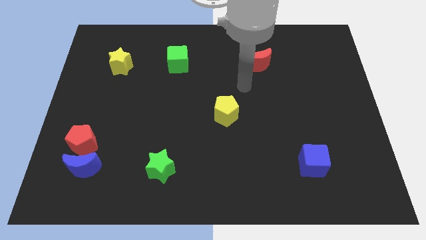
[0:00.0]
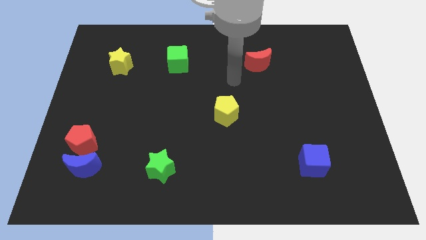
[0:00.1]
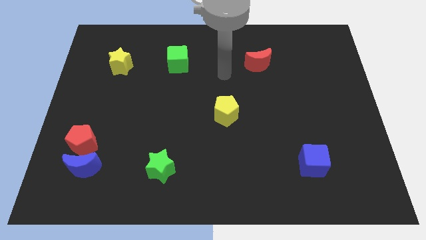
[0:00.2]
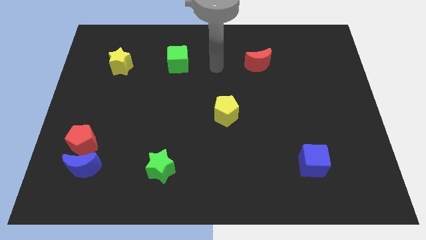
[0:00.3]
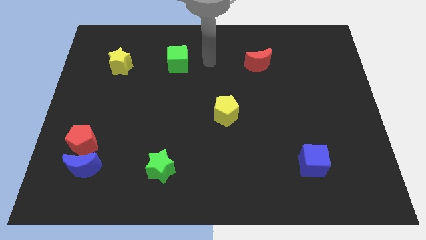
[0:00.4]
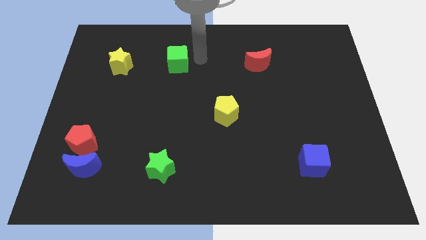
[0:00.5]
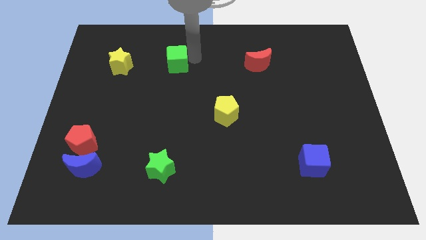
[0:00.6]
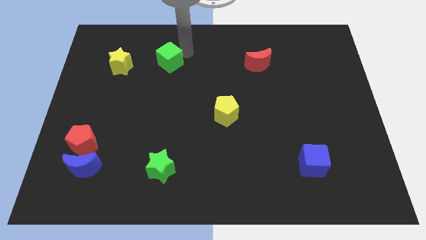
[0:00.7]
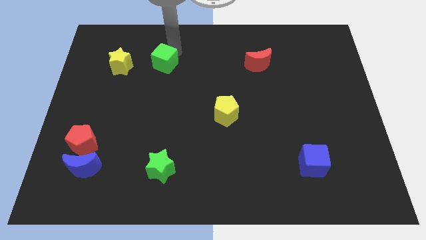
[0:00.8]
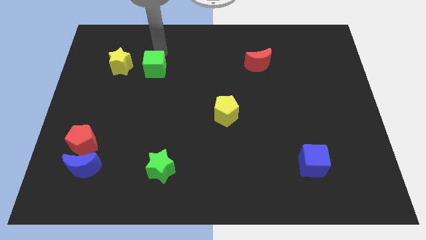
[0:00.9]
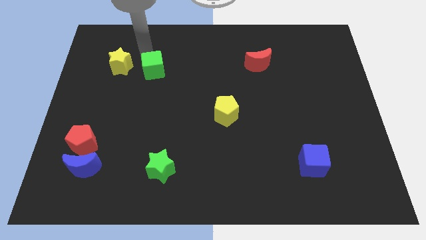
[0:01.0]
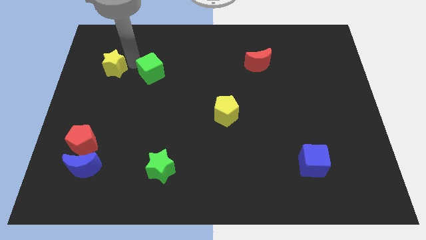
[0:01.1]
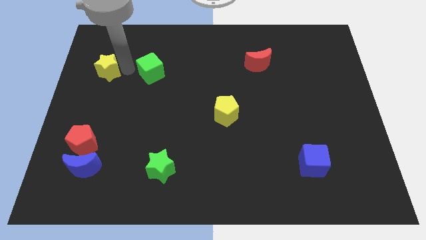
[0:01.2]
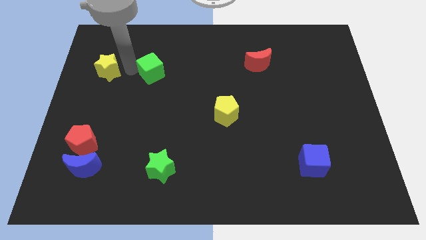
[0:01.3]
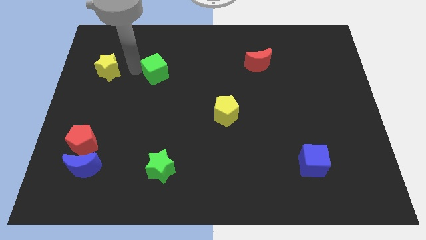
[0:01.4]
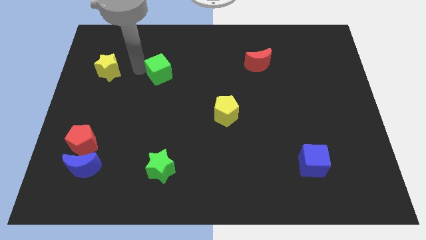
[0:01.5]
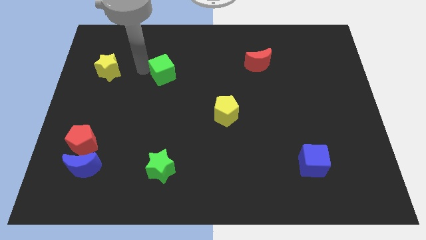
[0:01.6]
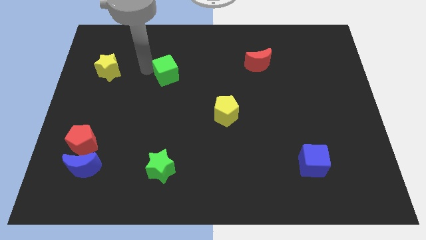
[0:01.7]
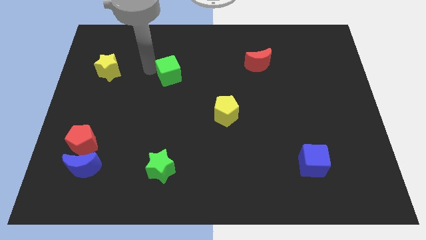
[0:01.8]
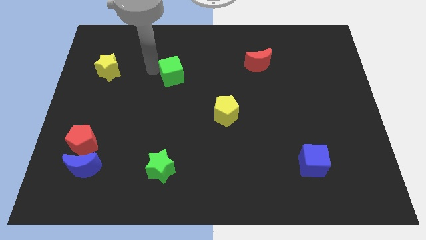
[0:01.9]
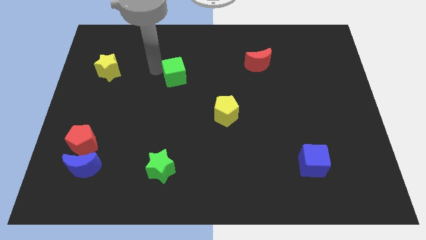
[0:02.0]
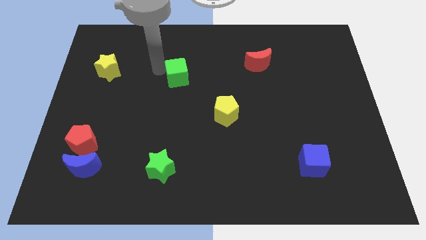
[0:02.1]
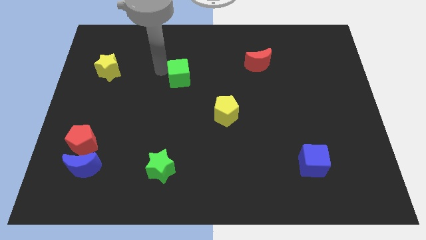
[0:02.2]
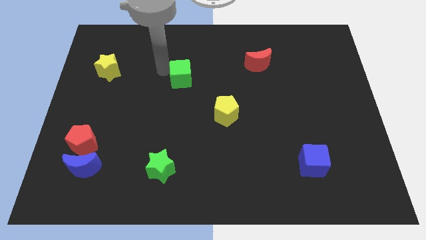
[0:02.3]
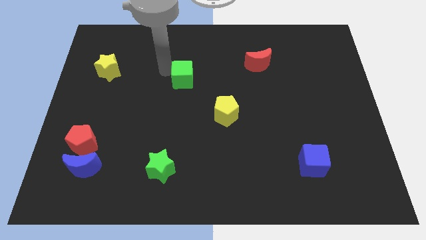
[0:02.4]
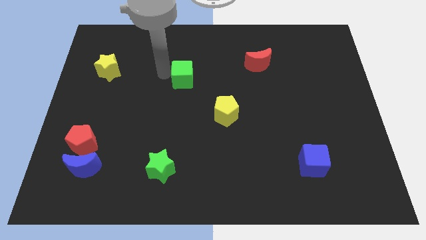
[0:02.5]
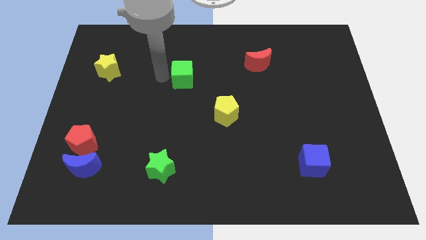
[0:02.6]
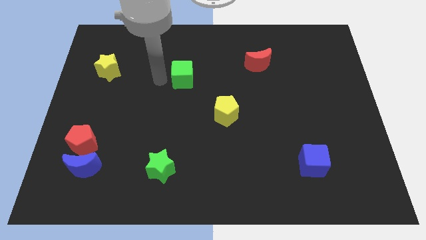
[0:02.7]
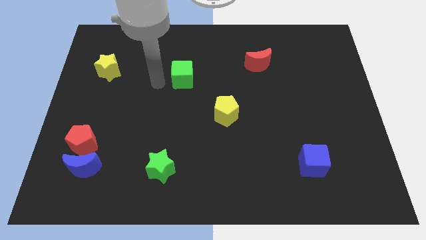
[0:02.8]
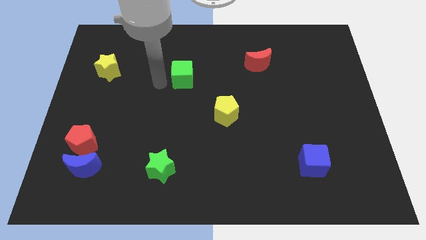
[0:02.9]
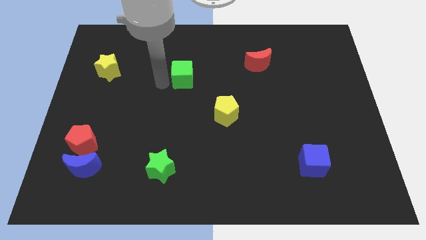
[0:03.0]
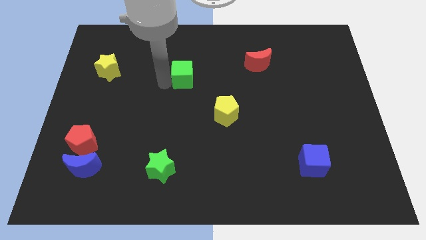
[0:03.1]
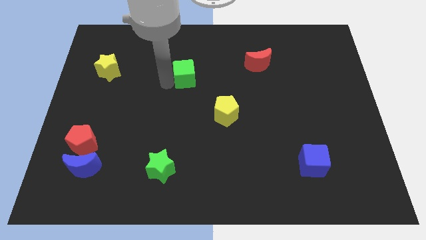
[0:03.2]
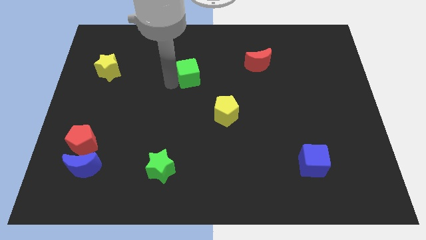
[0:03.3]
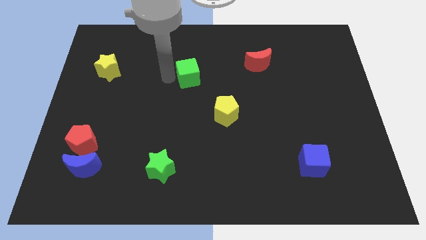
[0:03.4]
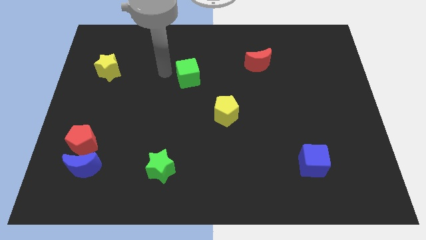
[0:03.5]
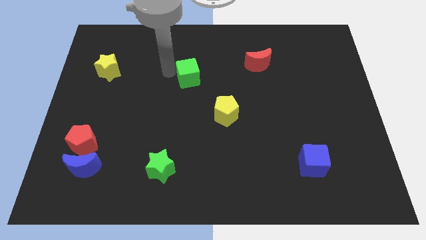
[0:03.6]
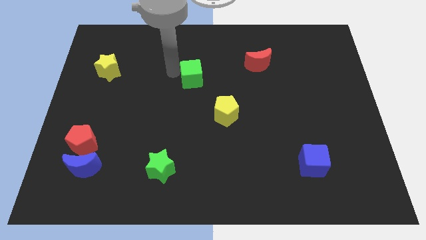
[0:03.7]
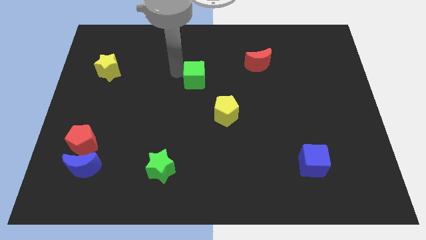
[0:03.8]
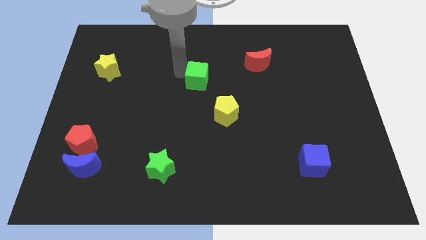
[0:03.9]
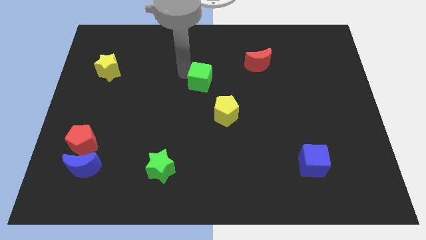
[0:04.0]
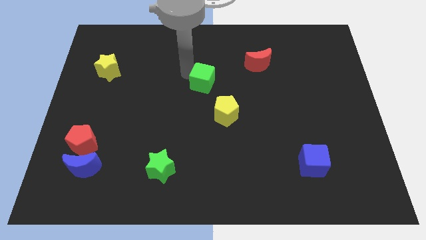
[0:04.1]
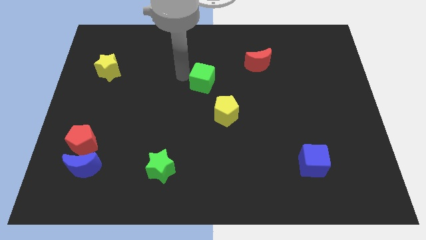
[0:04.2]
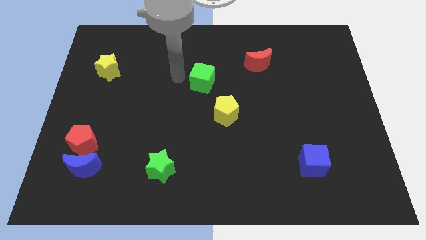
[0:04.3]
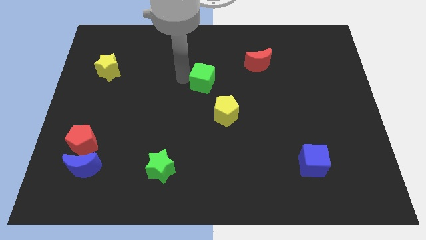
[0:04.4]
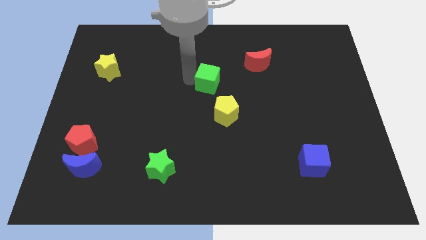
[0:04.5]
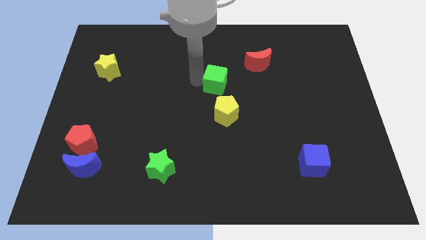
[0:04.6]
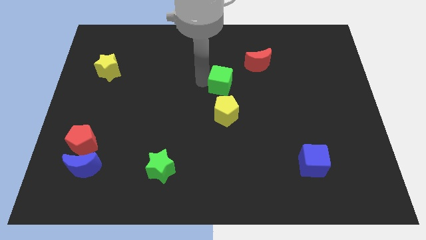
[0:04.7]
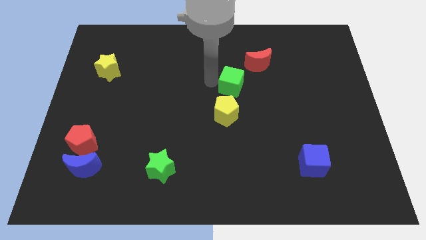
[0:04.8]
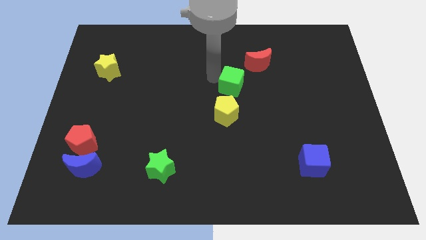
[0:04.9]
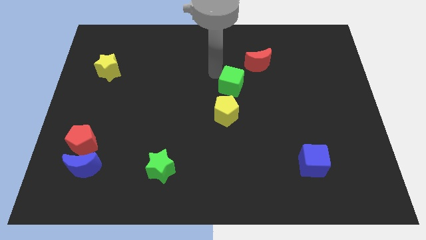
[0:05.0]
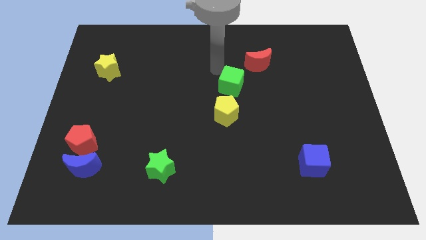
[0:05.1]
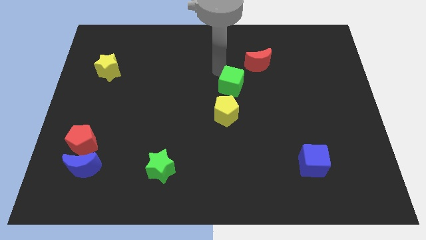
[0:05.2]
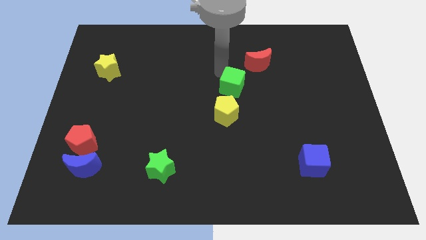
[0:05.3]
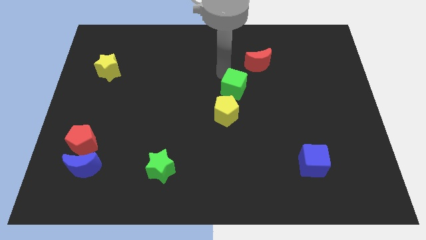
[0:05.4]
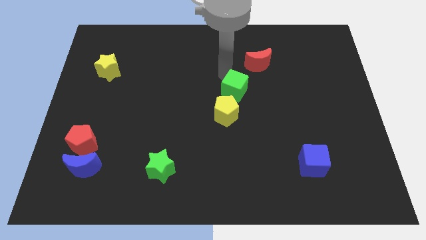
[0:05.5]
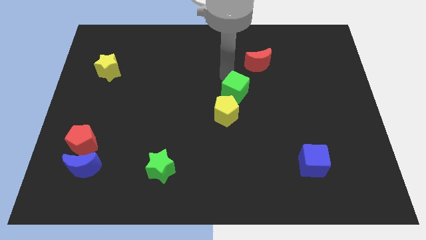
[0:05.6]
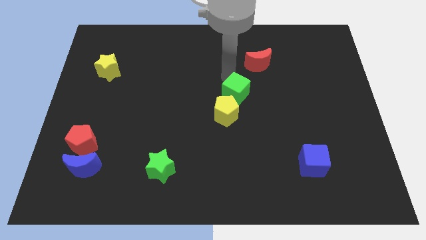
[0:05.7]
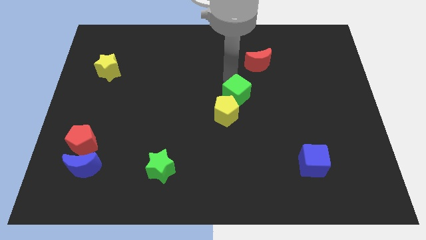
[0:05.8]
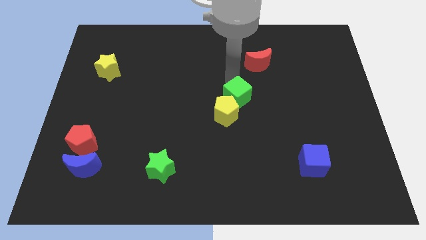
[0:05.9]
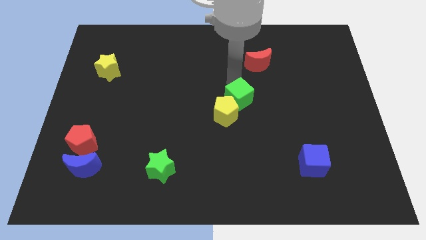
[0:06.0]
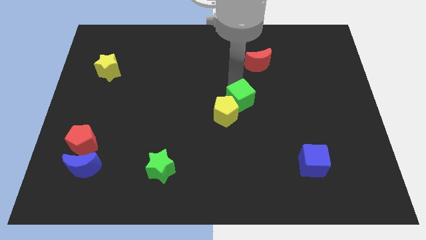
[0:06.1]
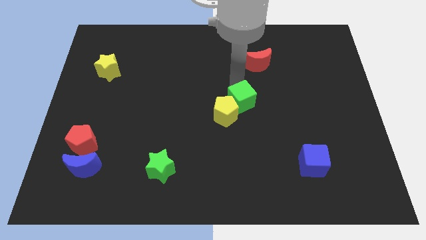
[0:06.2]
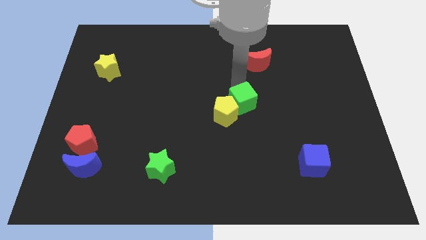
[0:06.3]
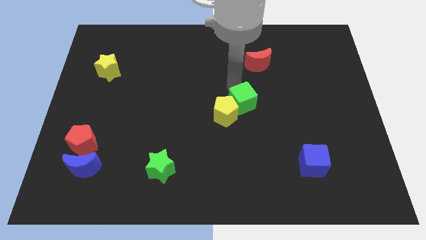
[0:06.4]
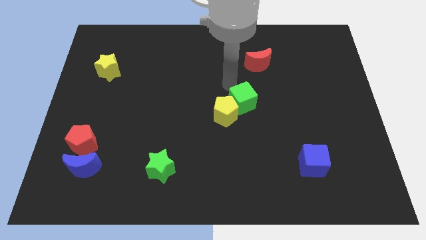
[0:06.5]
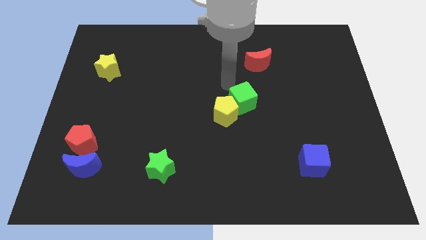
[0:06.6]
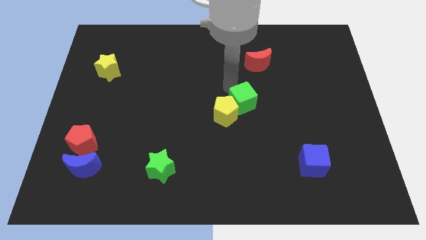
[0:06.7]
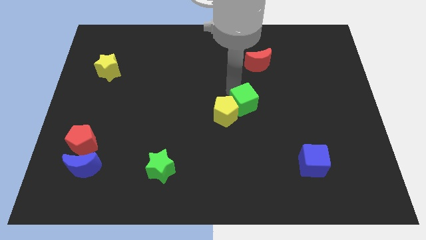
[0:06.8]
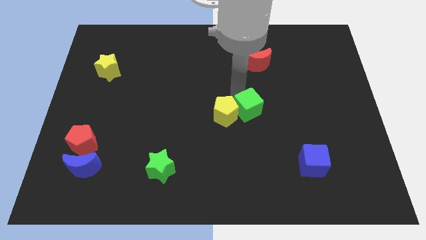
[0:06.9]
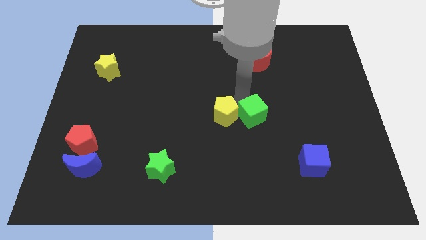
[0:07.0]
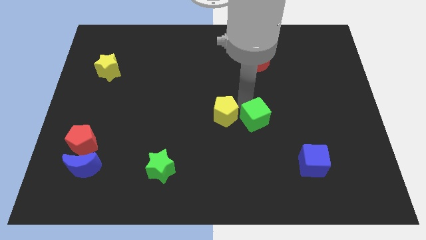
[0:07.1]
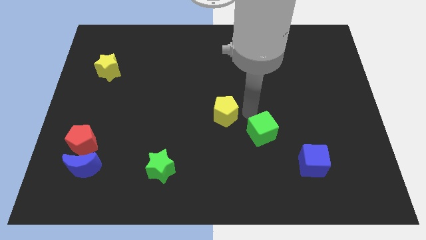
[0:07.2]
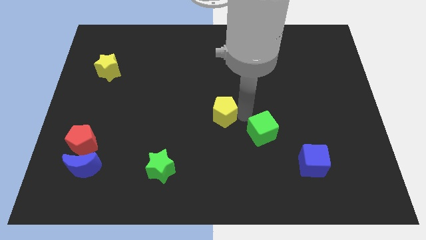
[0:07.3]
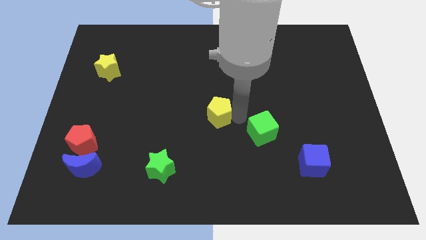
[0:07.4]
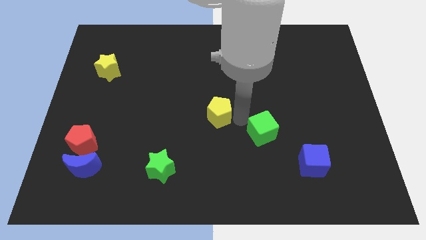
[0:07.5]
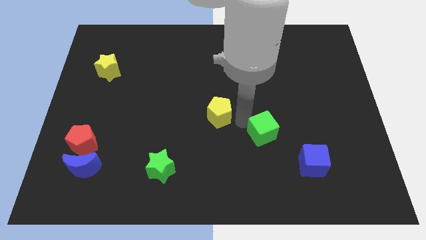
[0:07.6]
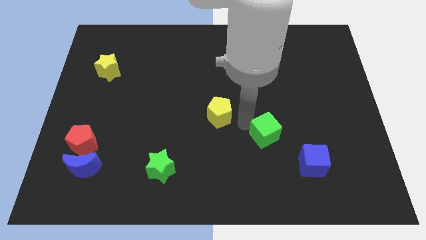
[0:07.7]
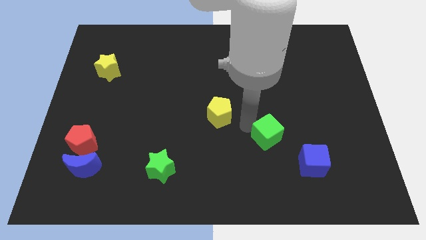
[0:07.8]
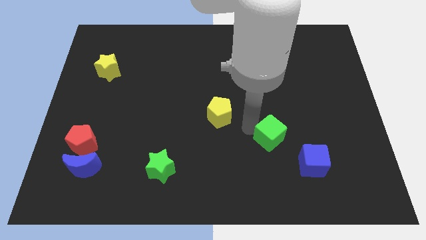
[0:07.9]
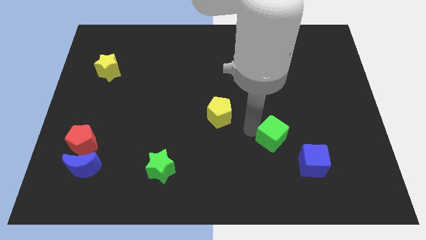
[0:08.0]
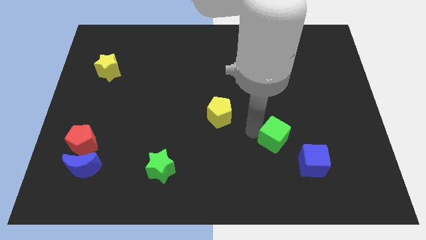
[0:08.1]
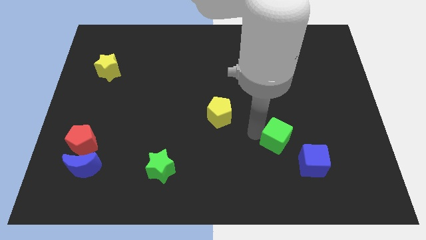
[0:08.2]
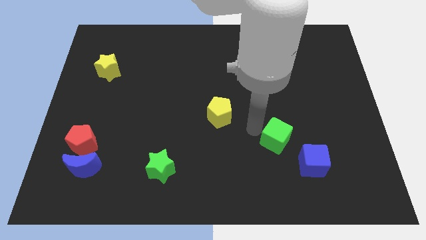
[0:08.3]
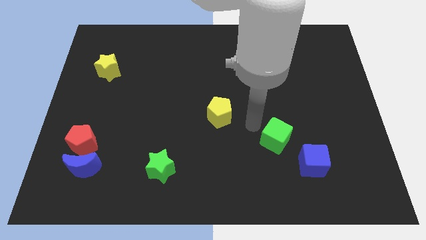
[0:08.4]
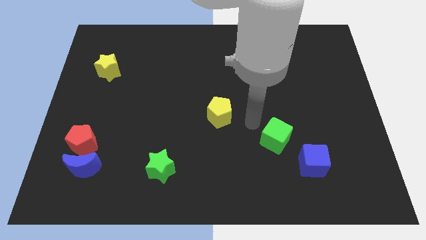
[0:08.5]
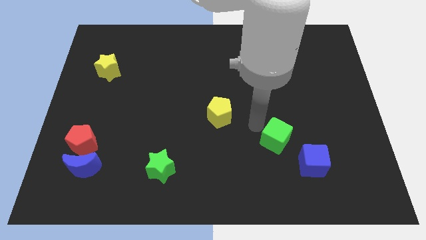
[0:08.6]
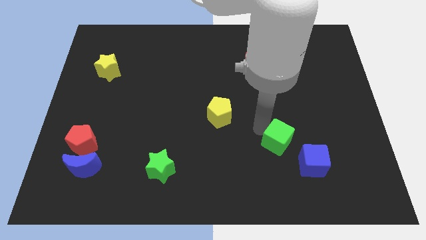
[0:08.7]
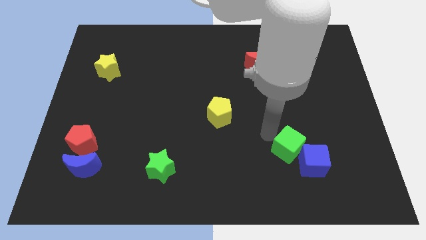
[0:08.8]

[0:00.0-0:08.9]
put the green cube to the blue cube
